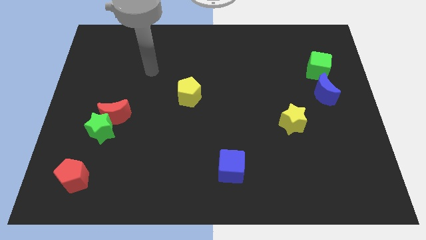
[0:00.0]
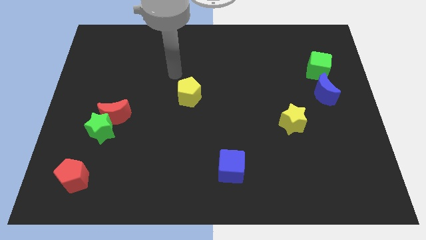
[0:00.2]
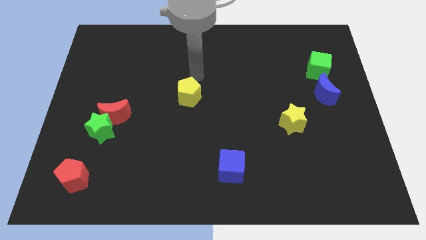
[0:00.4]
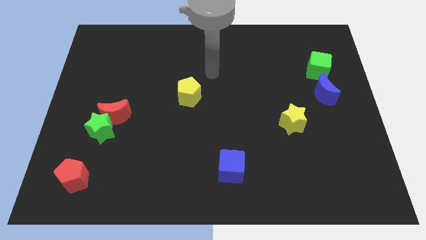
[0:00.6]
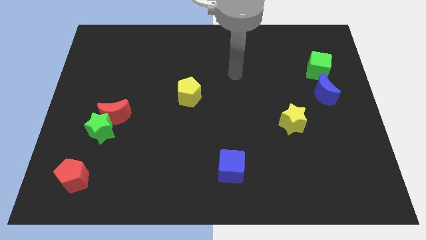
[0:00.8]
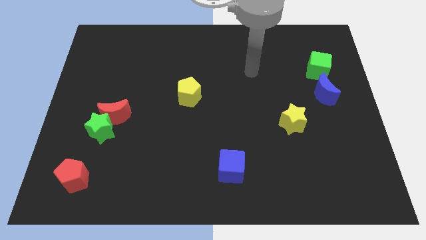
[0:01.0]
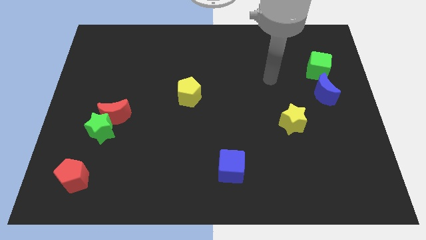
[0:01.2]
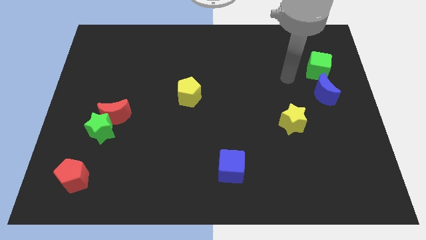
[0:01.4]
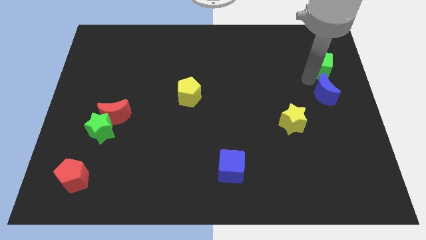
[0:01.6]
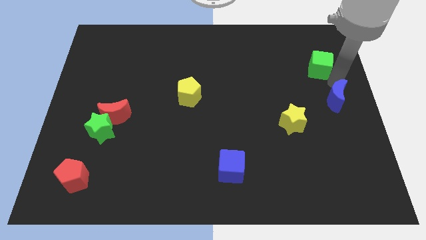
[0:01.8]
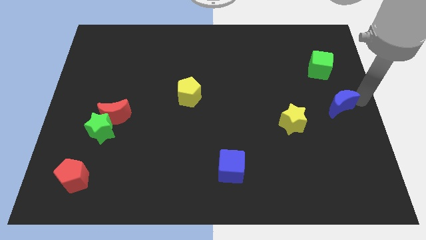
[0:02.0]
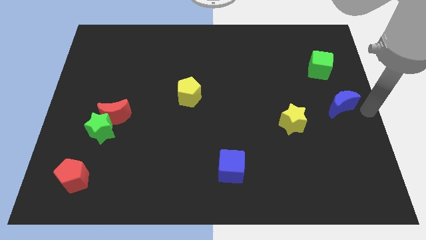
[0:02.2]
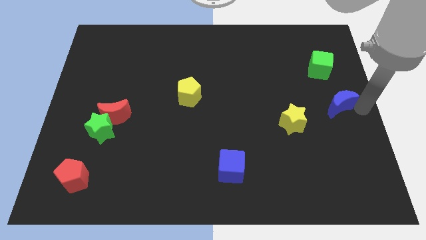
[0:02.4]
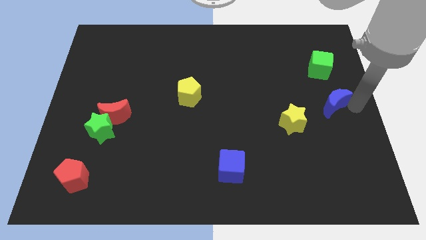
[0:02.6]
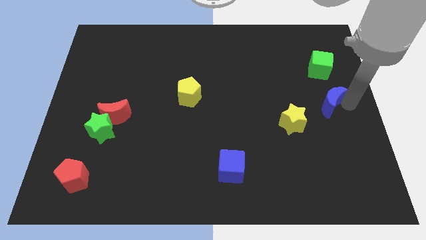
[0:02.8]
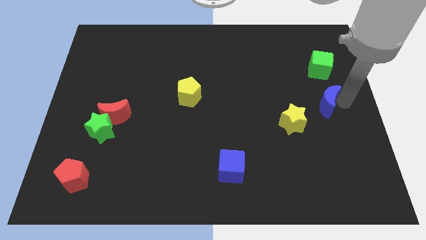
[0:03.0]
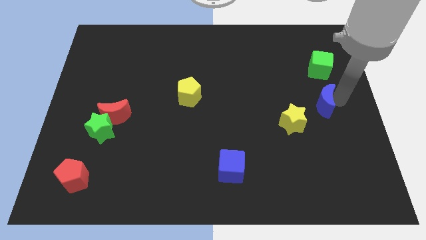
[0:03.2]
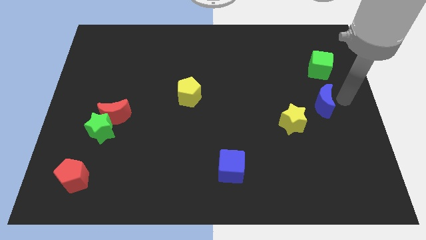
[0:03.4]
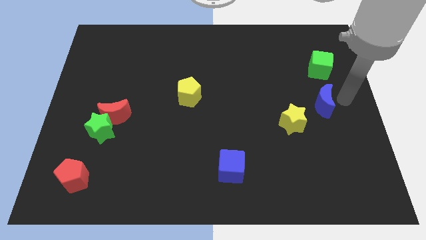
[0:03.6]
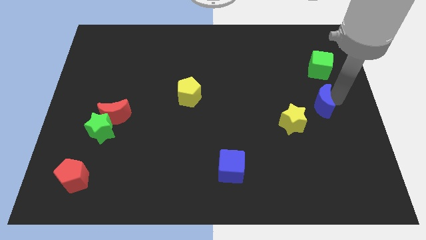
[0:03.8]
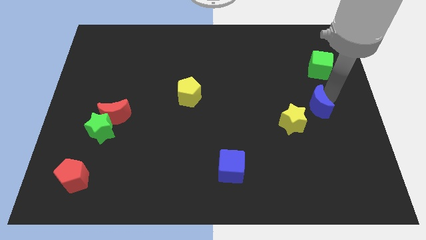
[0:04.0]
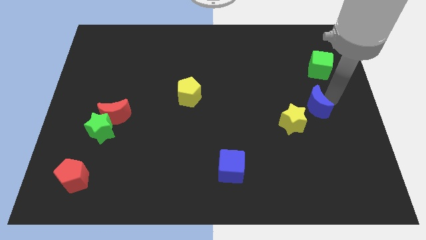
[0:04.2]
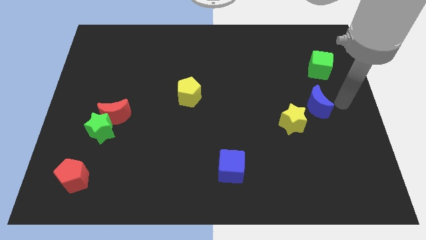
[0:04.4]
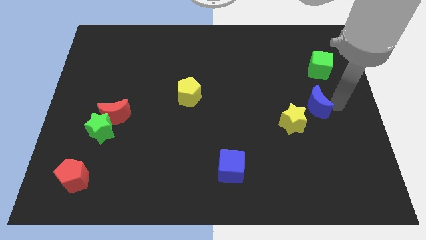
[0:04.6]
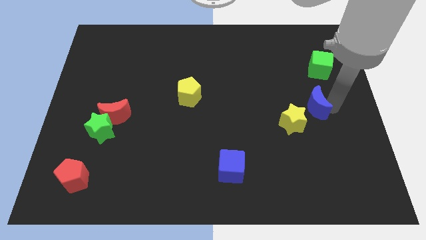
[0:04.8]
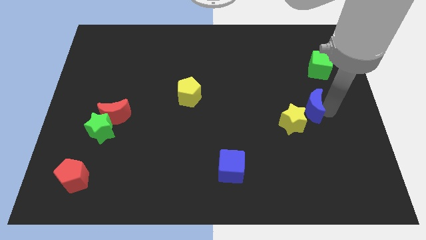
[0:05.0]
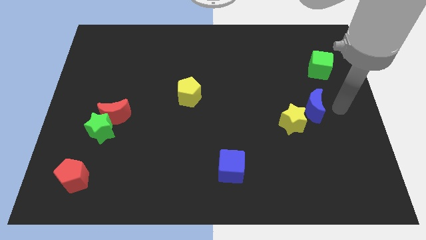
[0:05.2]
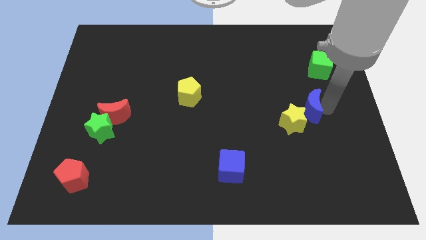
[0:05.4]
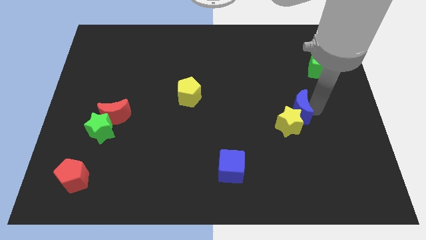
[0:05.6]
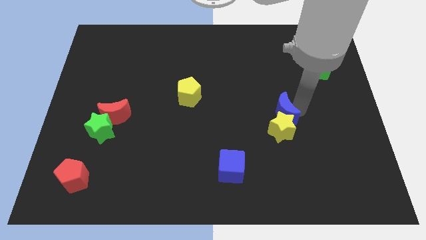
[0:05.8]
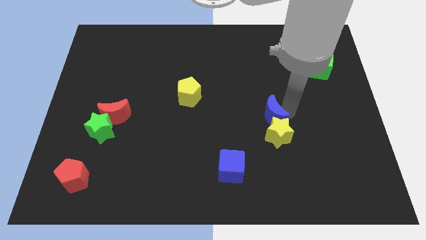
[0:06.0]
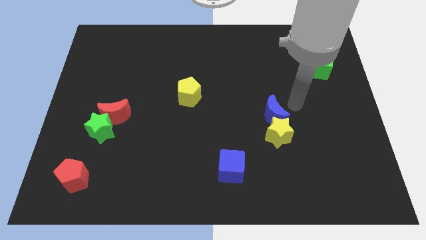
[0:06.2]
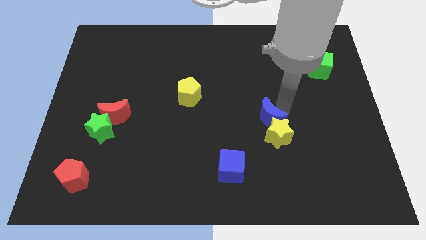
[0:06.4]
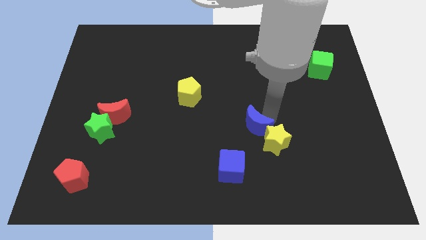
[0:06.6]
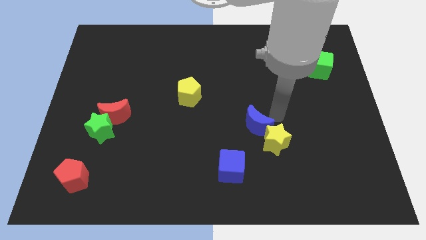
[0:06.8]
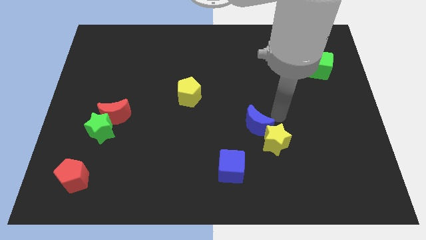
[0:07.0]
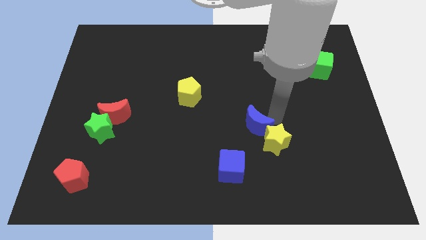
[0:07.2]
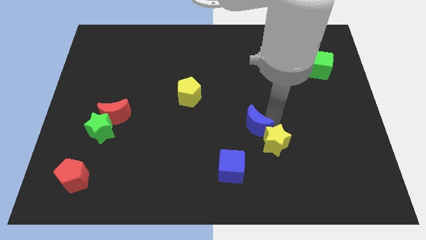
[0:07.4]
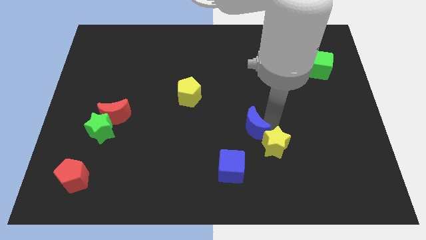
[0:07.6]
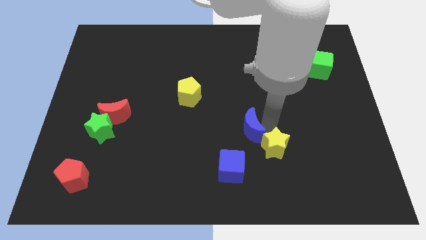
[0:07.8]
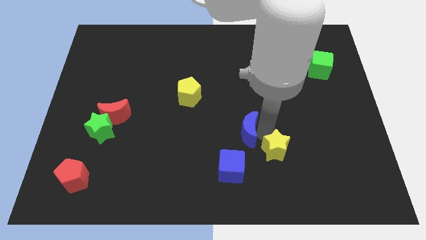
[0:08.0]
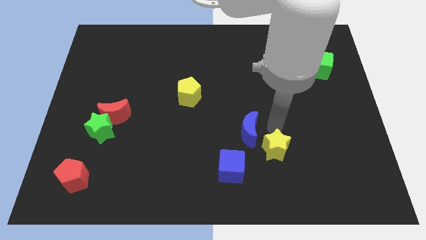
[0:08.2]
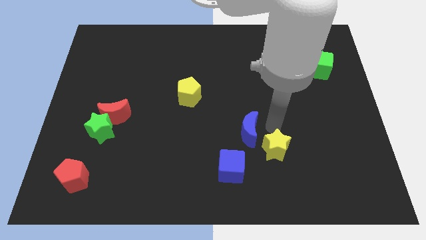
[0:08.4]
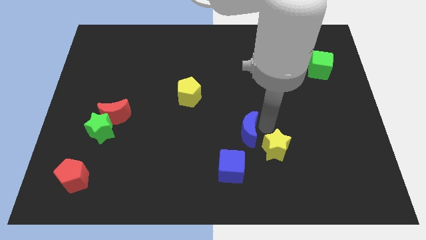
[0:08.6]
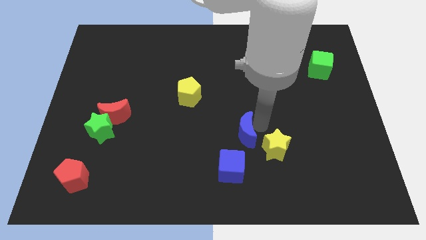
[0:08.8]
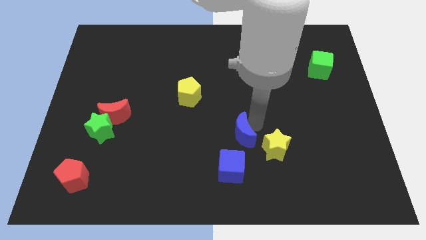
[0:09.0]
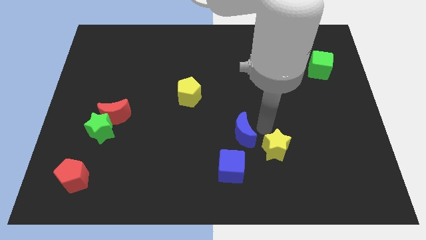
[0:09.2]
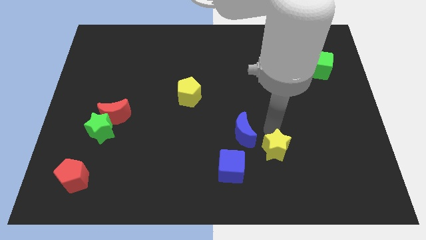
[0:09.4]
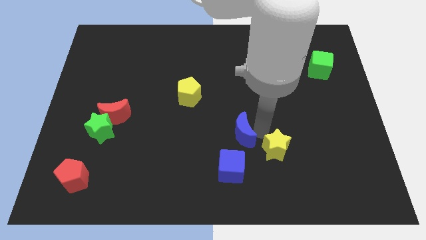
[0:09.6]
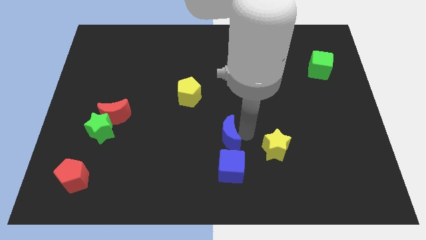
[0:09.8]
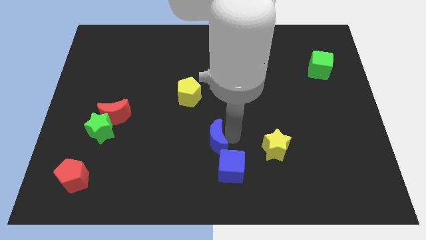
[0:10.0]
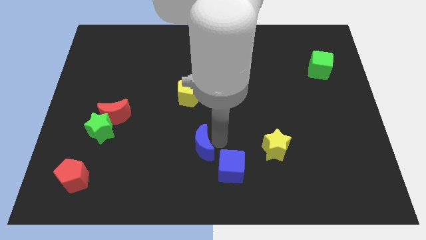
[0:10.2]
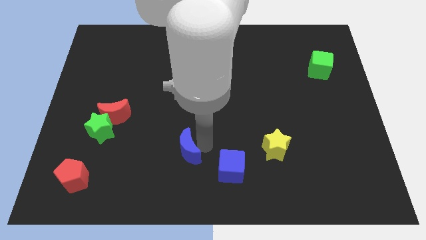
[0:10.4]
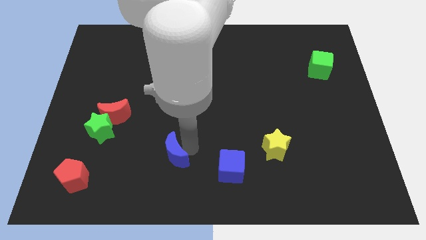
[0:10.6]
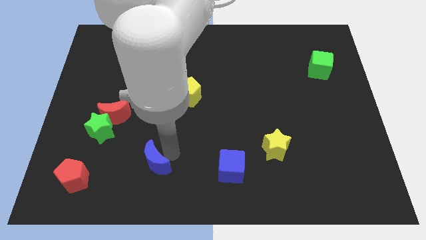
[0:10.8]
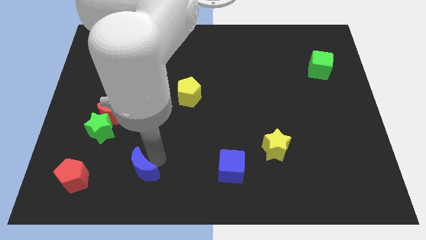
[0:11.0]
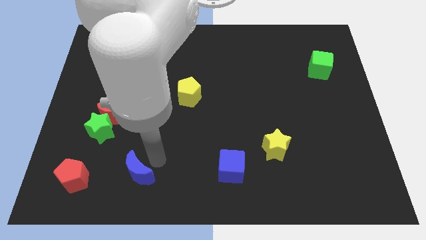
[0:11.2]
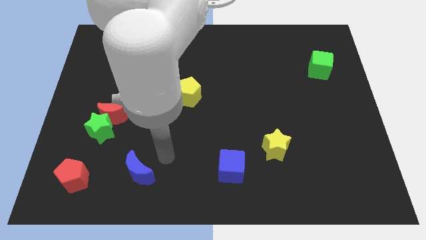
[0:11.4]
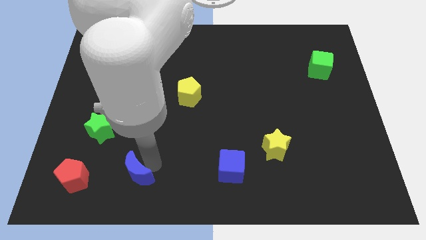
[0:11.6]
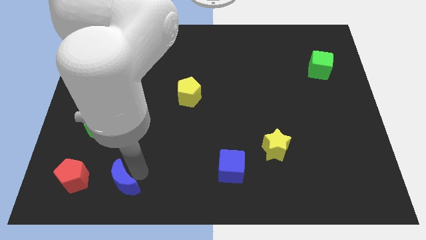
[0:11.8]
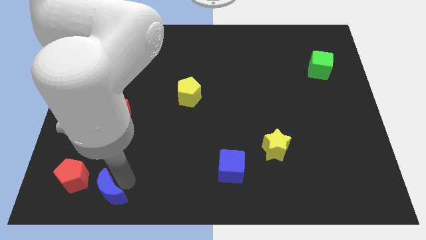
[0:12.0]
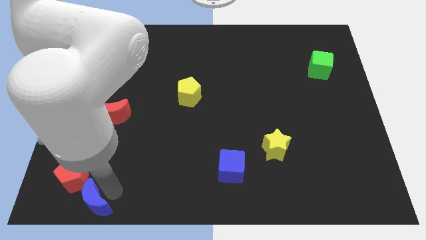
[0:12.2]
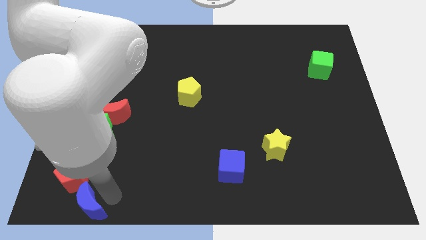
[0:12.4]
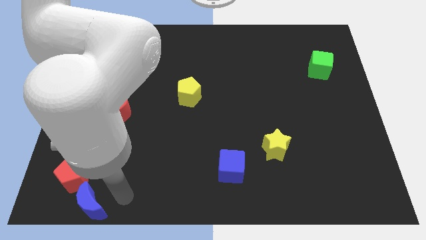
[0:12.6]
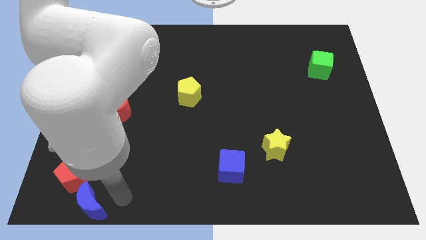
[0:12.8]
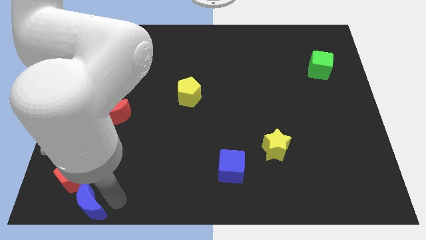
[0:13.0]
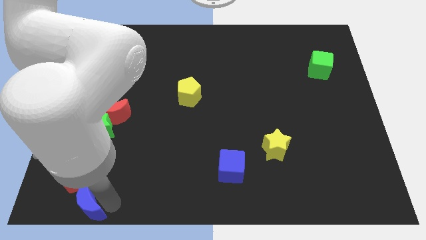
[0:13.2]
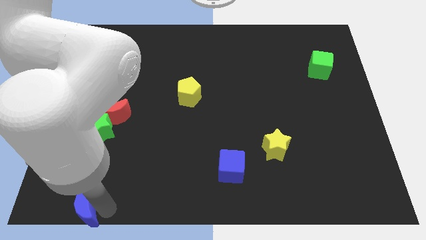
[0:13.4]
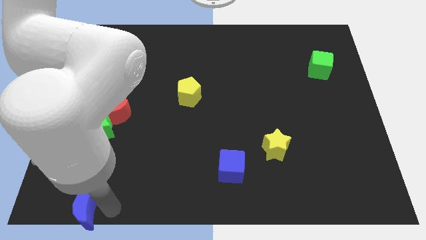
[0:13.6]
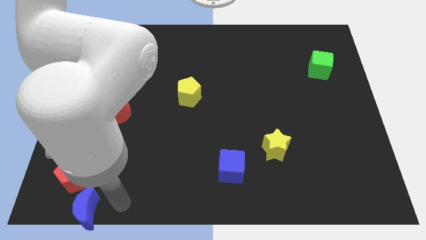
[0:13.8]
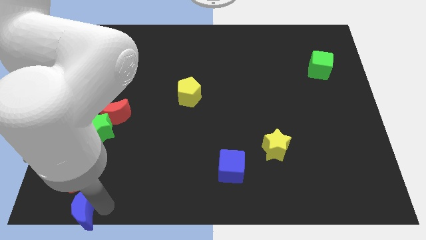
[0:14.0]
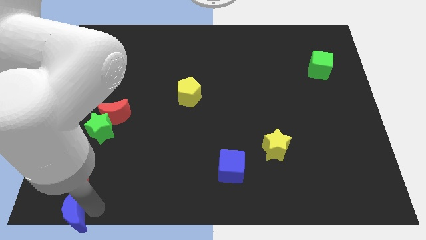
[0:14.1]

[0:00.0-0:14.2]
move the blue moon to the bottom left
